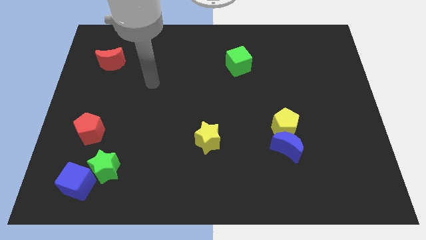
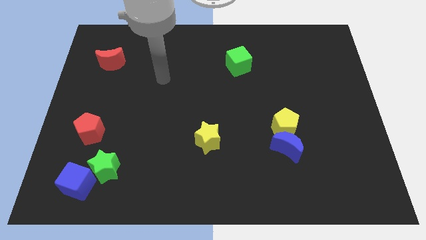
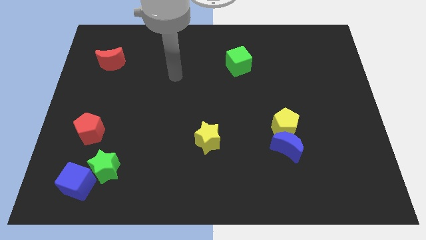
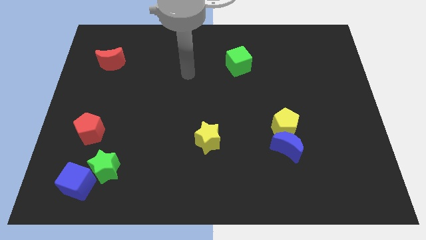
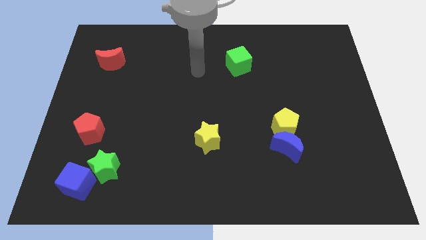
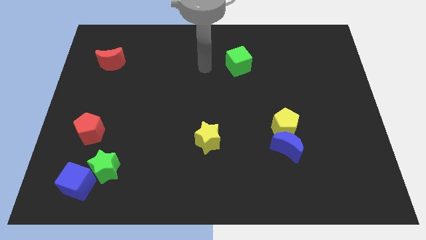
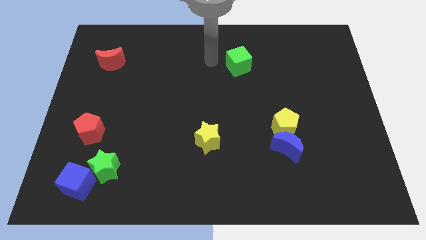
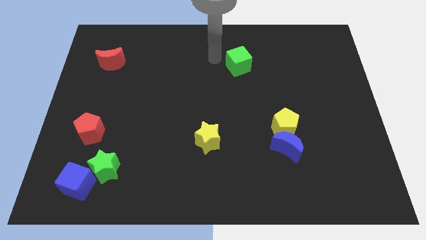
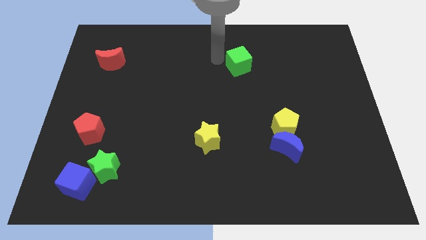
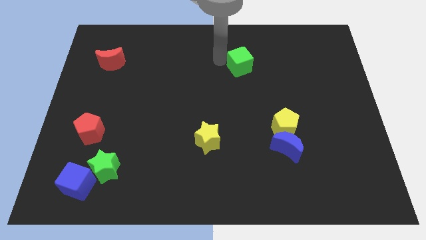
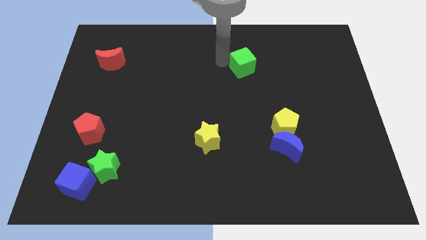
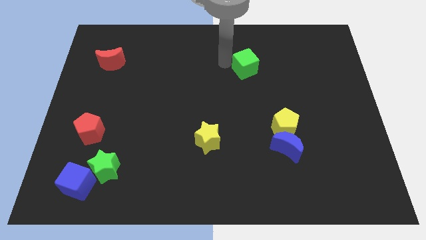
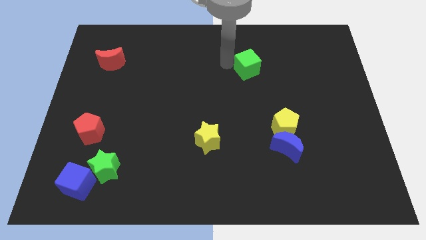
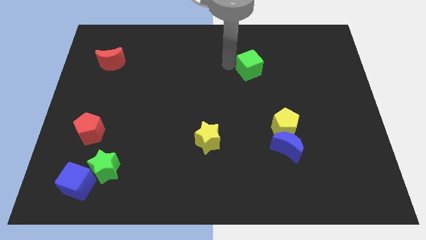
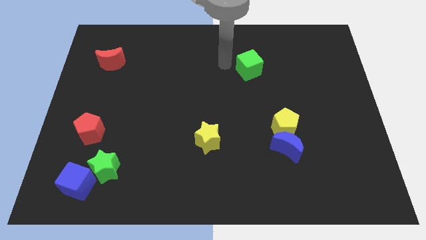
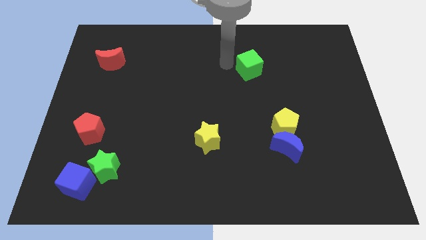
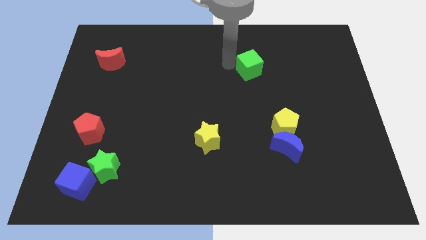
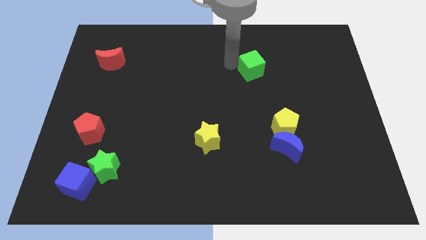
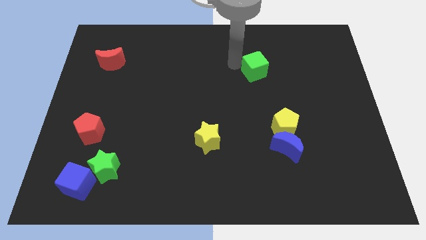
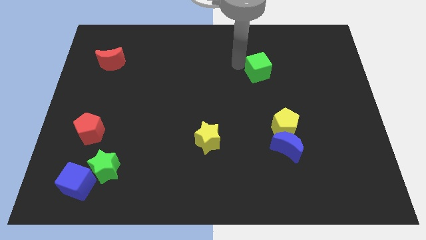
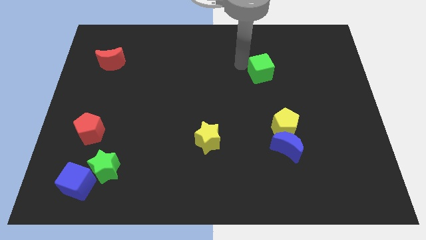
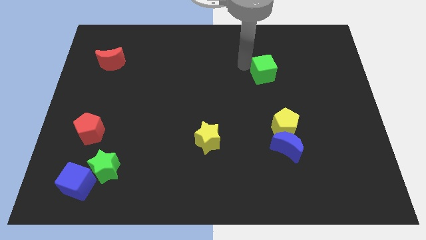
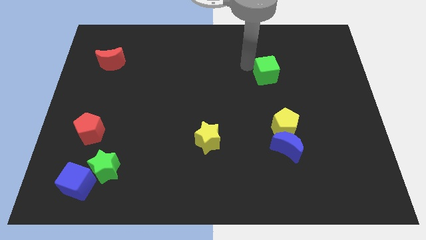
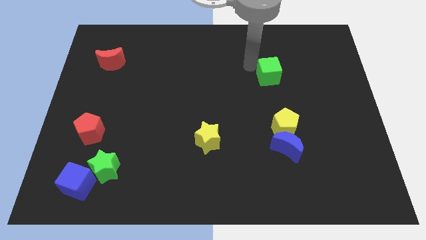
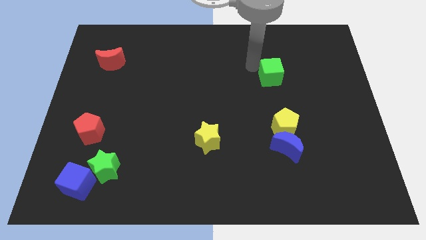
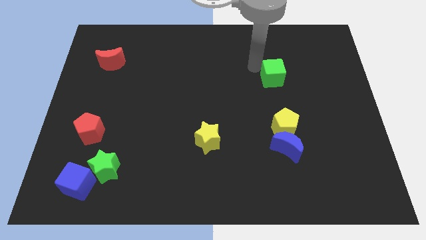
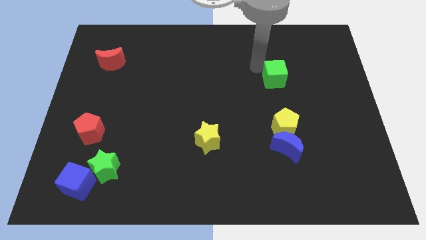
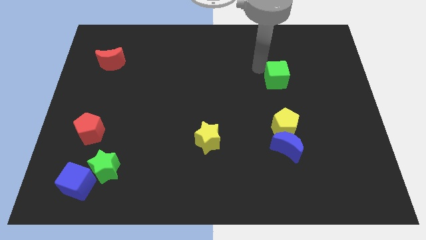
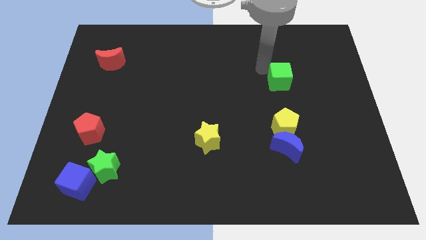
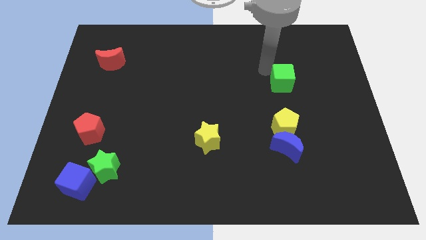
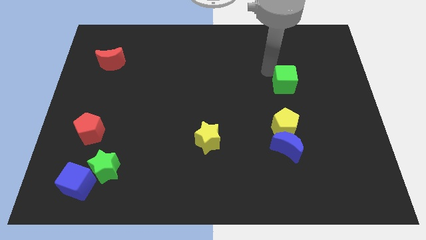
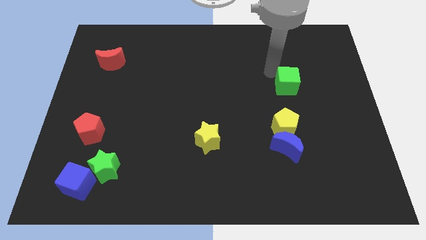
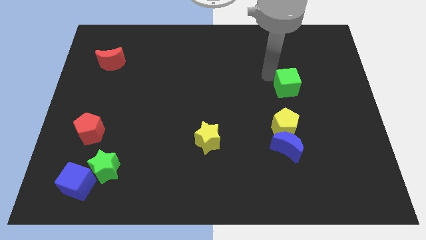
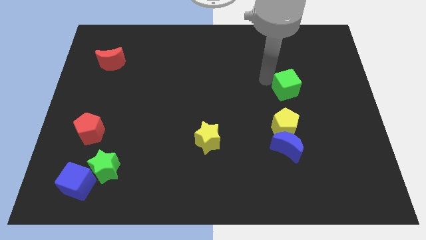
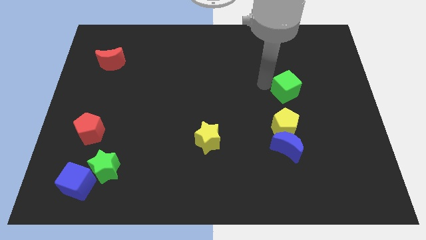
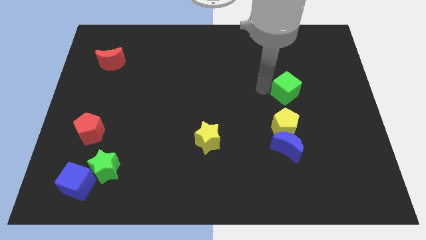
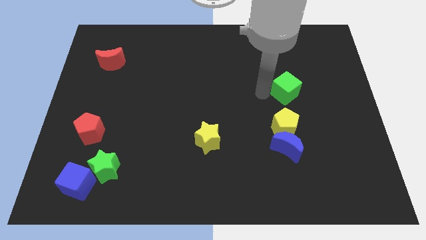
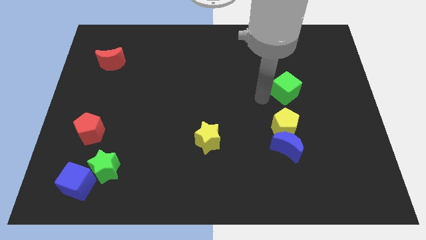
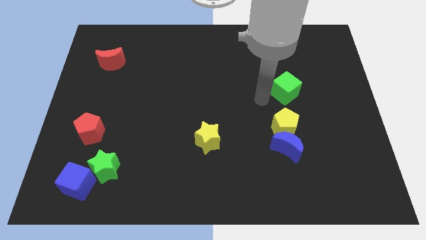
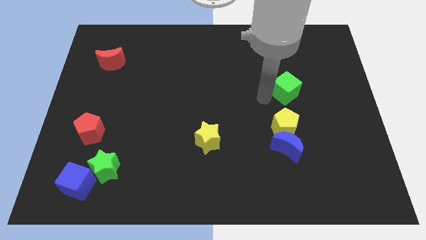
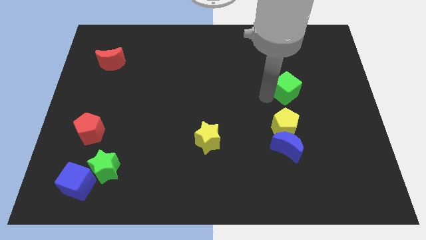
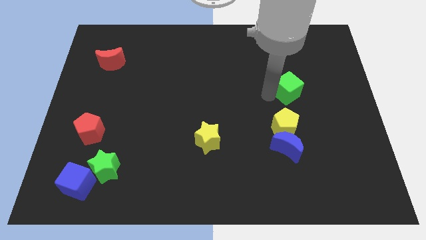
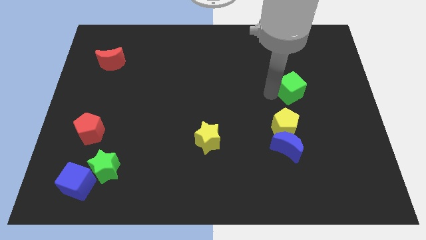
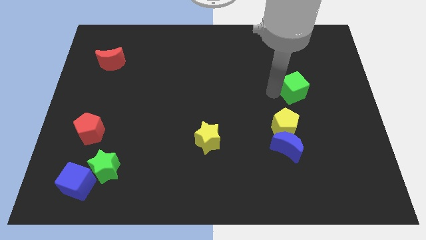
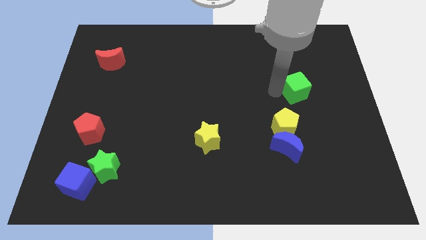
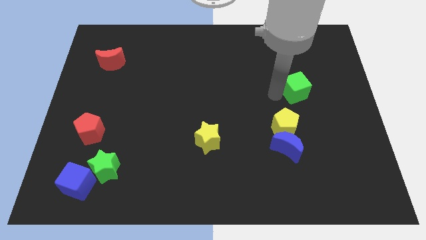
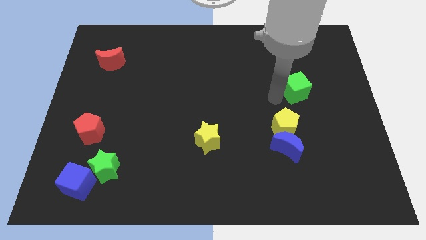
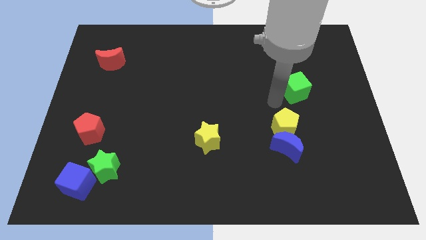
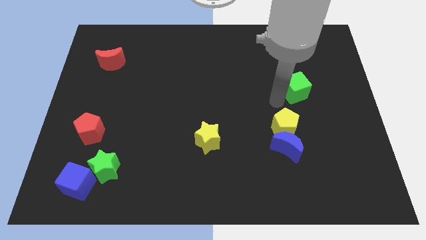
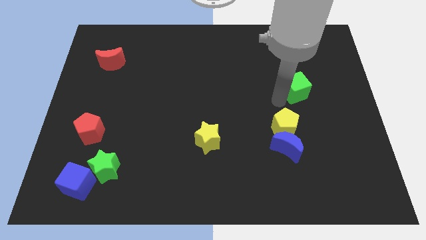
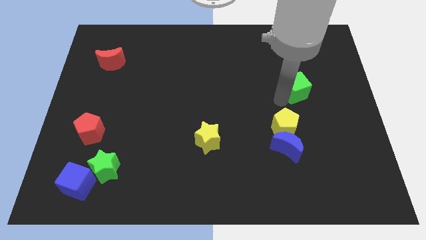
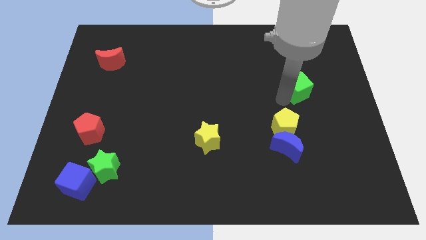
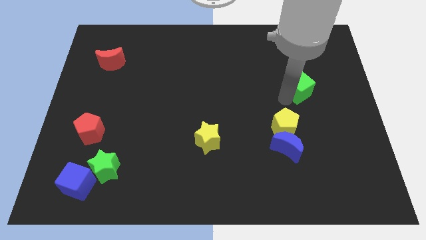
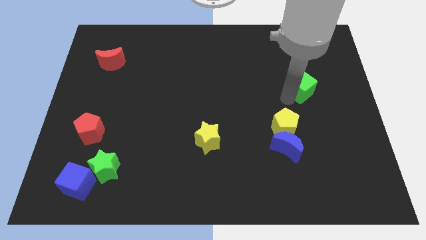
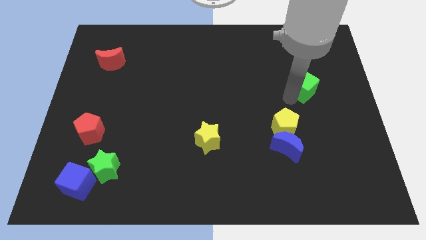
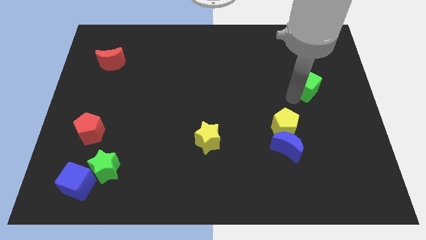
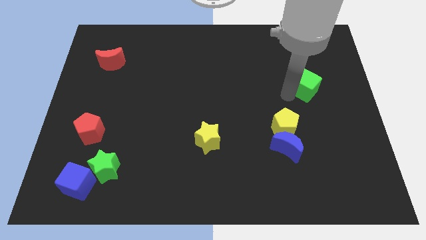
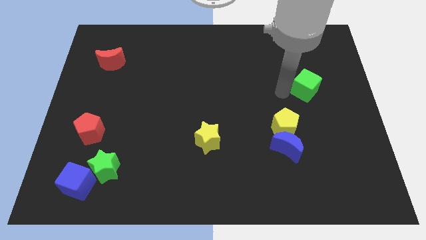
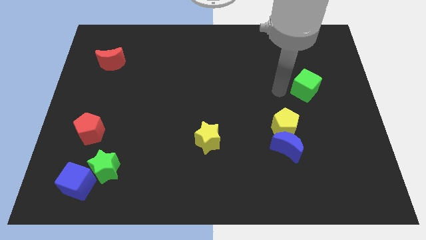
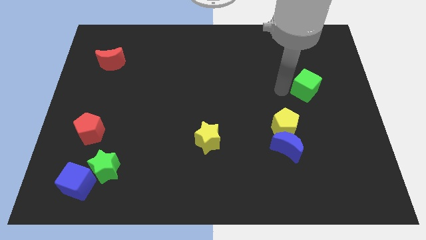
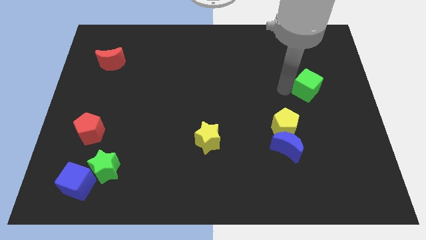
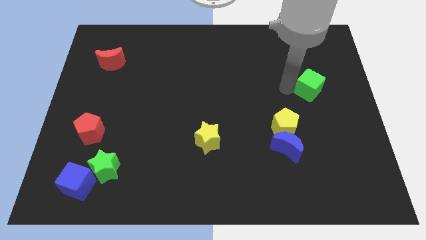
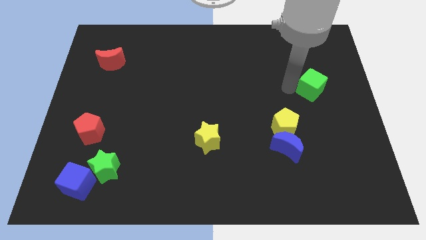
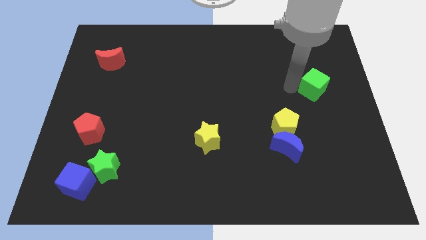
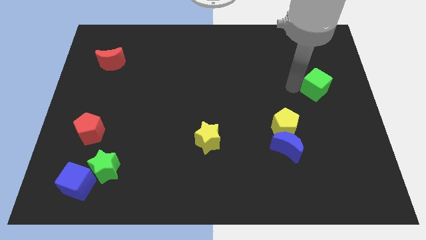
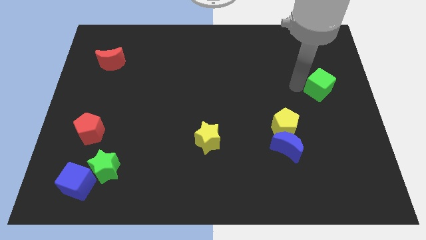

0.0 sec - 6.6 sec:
move the green cube to the right side
